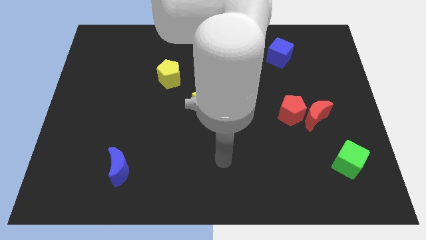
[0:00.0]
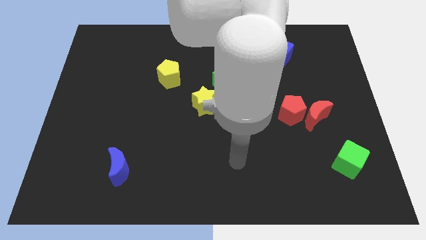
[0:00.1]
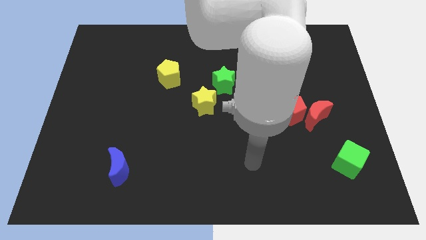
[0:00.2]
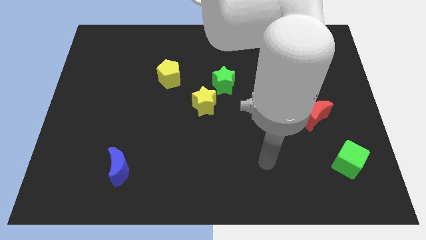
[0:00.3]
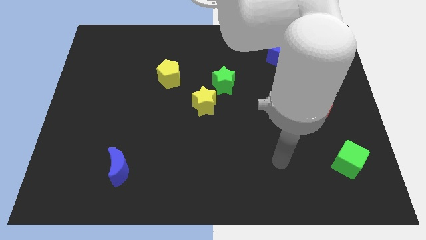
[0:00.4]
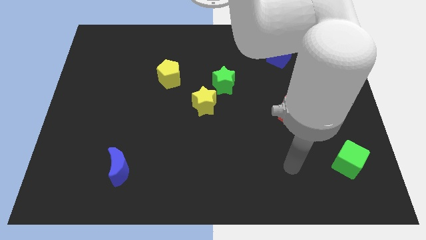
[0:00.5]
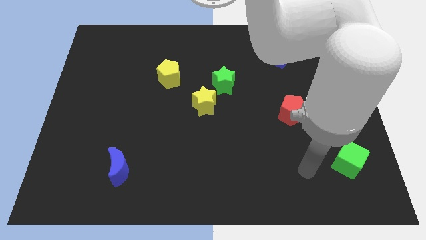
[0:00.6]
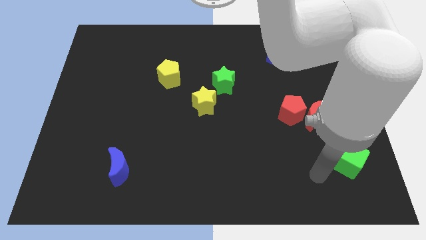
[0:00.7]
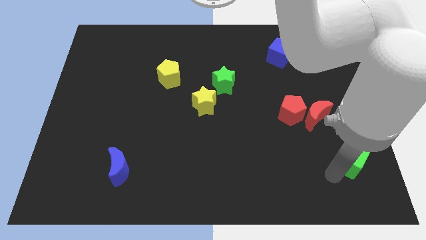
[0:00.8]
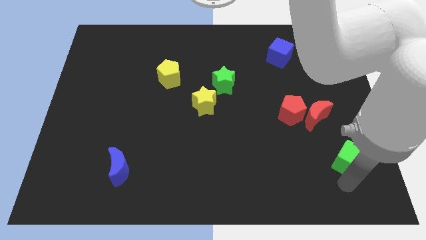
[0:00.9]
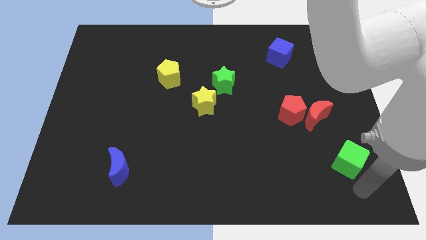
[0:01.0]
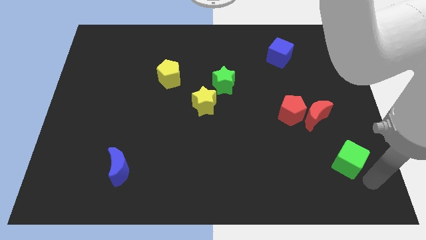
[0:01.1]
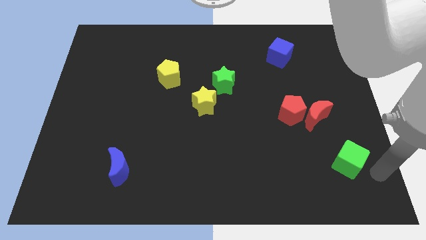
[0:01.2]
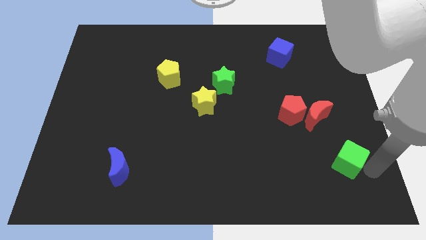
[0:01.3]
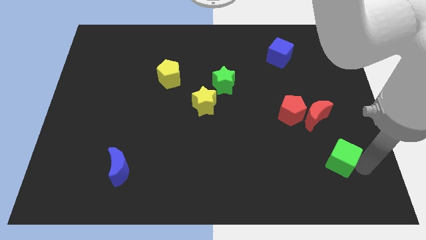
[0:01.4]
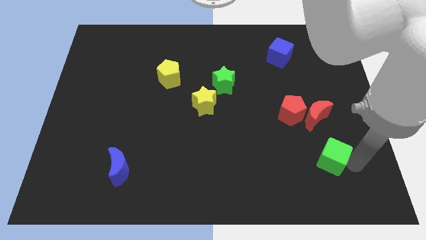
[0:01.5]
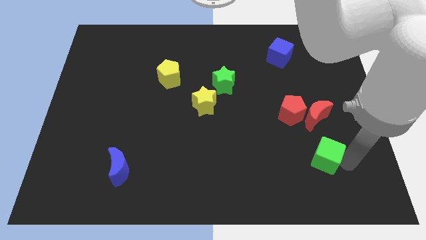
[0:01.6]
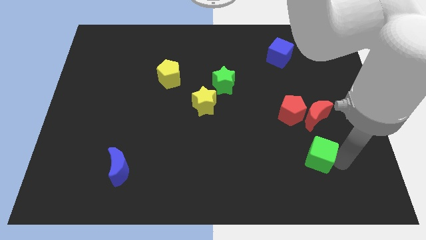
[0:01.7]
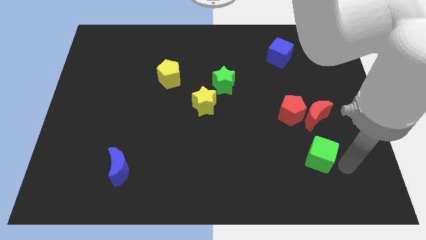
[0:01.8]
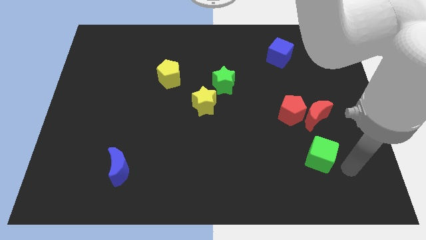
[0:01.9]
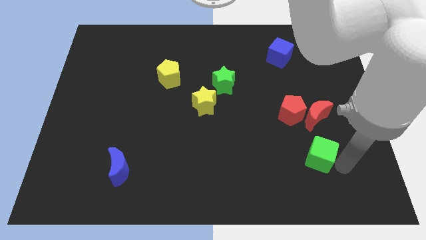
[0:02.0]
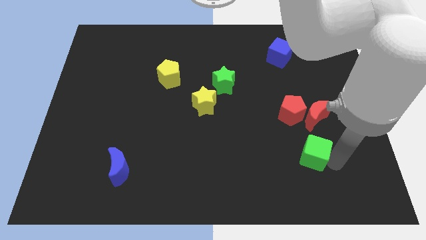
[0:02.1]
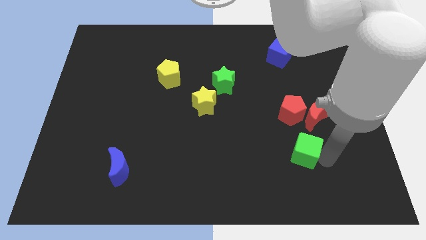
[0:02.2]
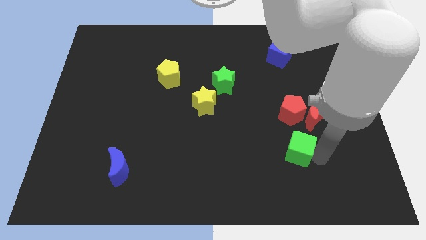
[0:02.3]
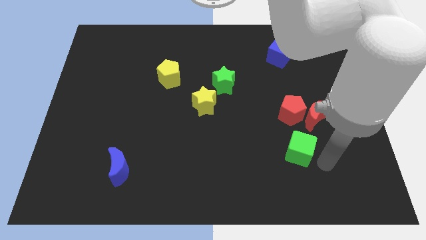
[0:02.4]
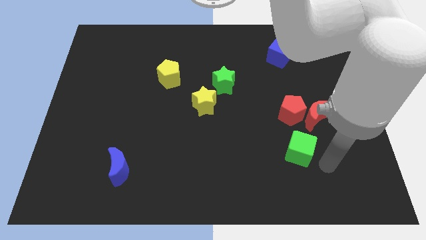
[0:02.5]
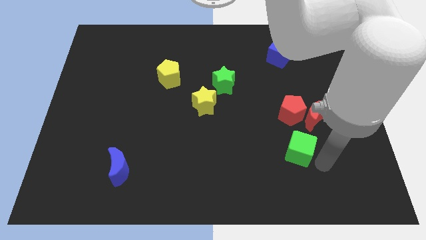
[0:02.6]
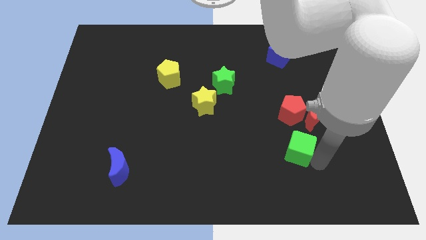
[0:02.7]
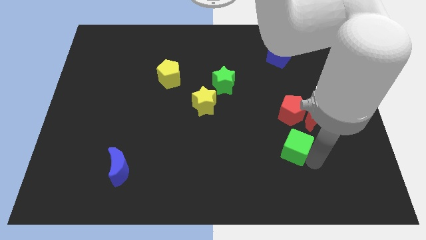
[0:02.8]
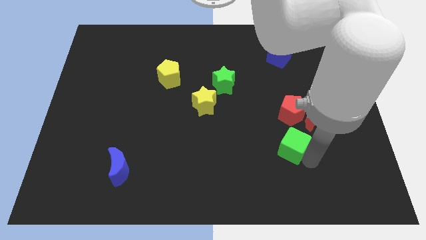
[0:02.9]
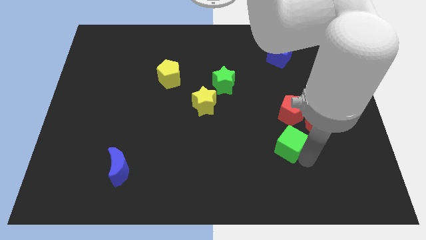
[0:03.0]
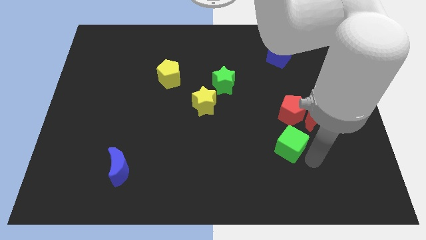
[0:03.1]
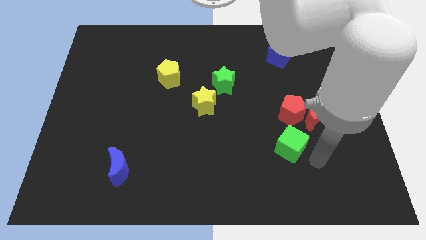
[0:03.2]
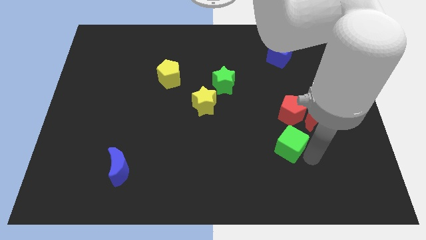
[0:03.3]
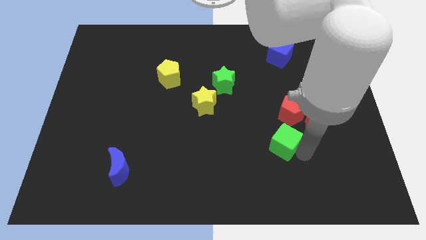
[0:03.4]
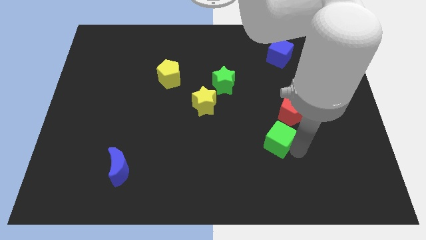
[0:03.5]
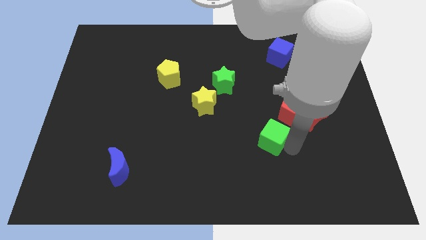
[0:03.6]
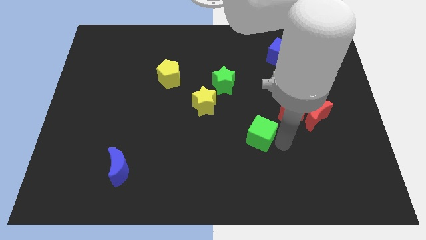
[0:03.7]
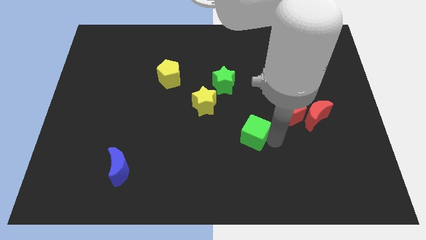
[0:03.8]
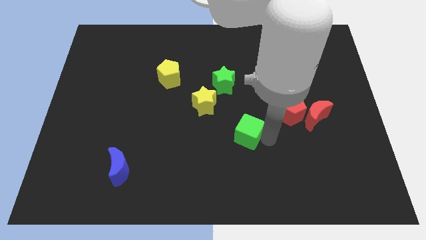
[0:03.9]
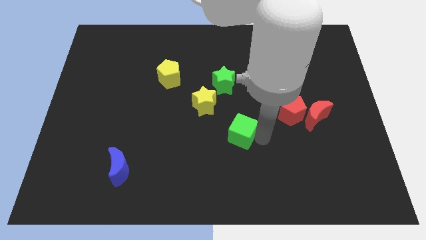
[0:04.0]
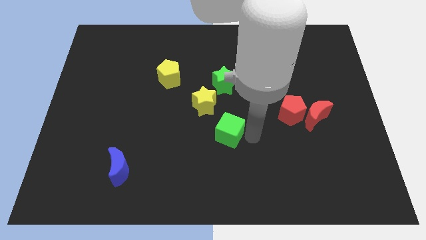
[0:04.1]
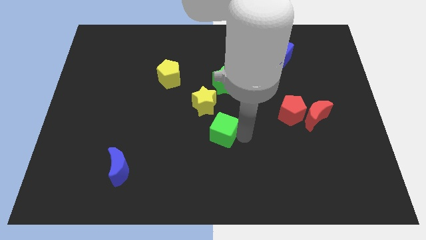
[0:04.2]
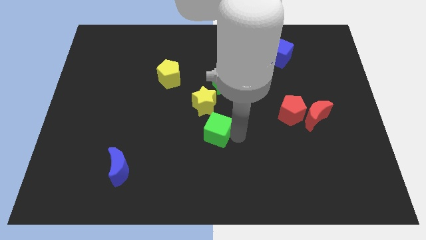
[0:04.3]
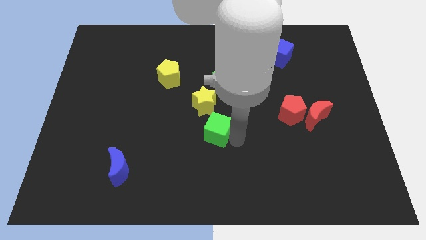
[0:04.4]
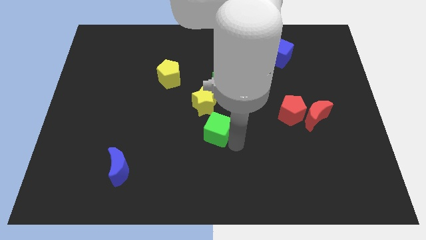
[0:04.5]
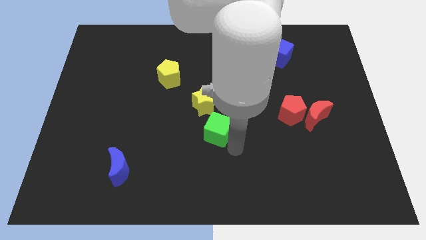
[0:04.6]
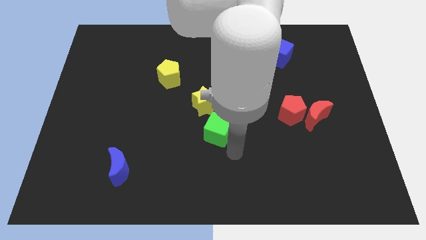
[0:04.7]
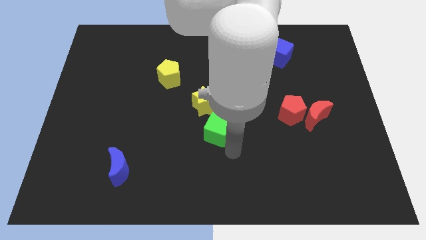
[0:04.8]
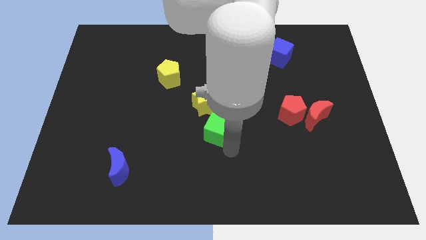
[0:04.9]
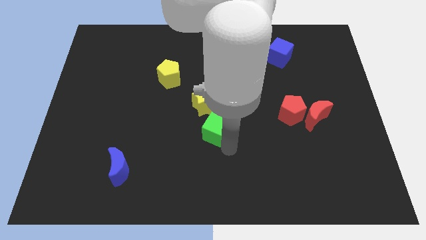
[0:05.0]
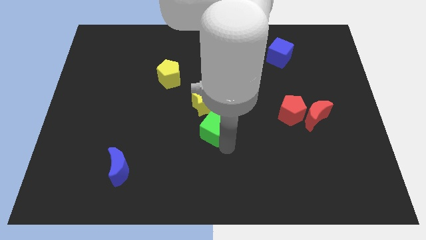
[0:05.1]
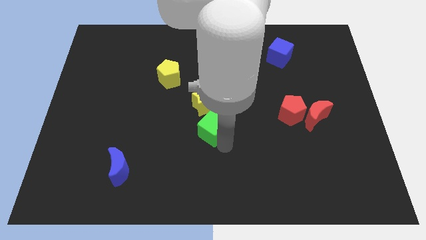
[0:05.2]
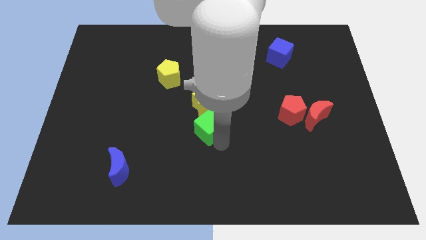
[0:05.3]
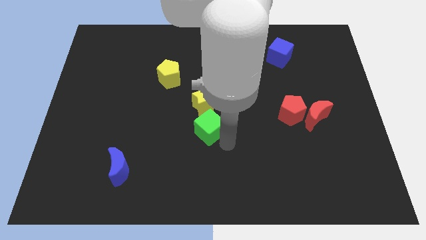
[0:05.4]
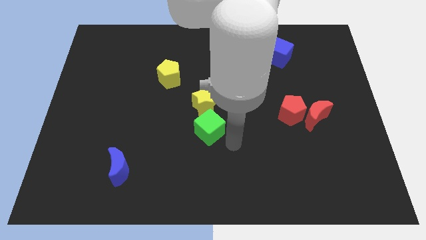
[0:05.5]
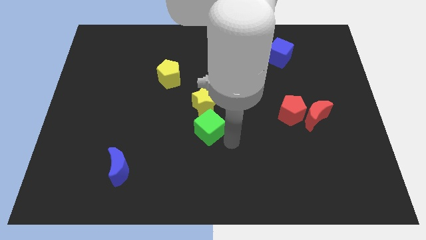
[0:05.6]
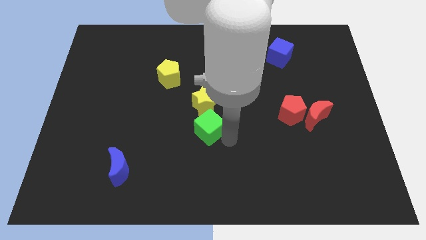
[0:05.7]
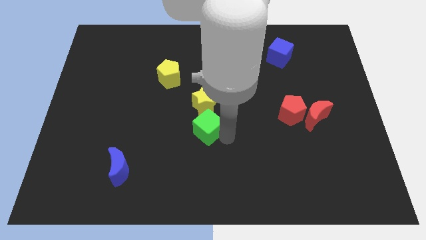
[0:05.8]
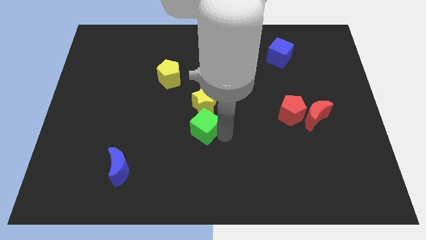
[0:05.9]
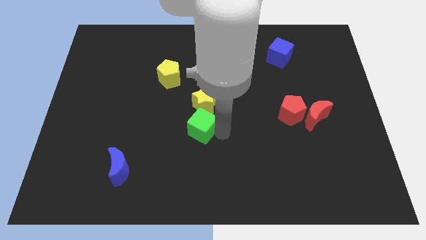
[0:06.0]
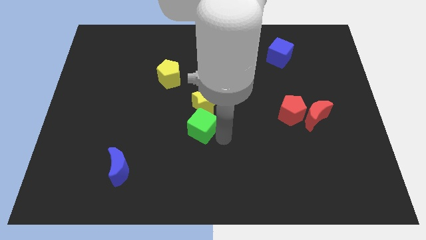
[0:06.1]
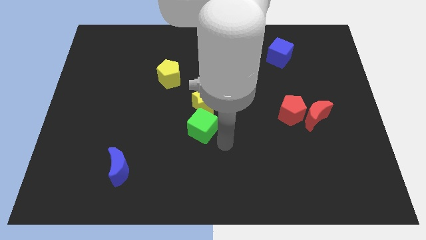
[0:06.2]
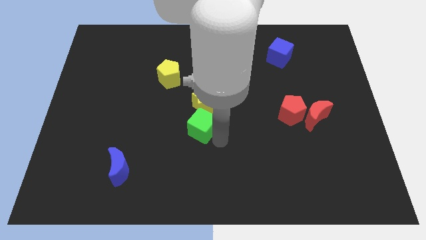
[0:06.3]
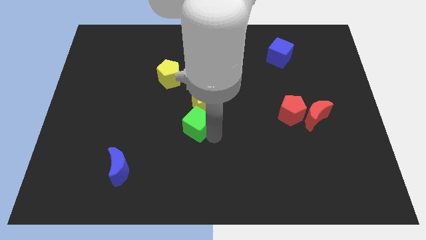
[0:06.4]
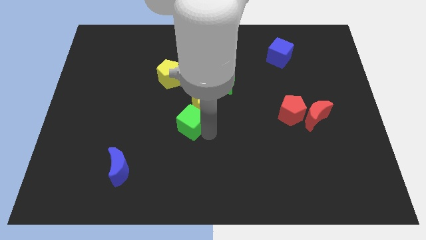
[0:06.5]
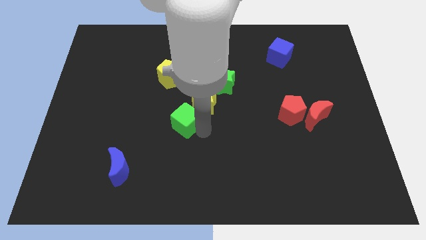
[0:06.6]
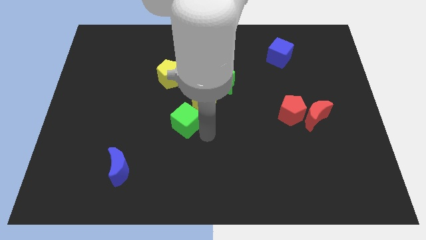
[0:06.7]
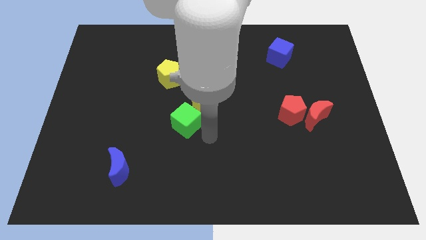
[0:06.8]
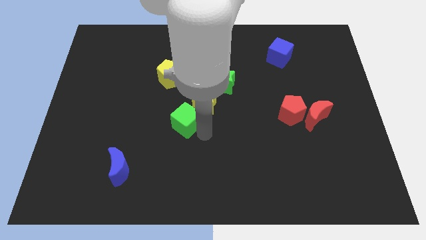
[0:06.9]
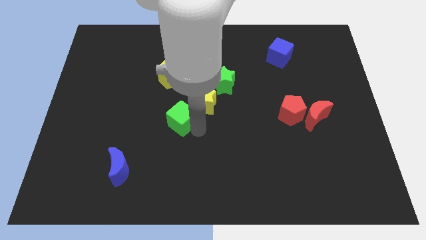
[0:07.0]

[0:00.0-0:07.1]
push the green cube below the yellow pentagon
